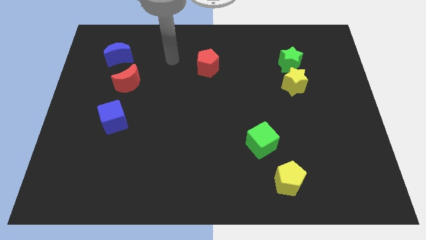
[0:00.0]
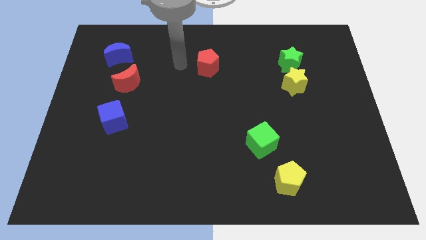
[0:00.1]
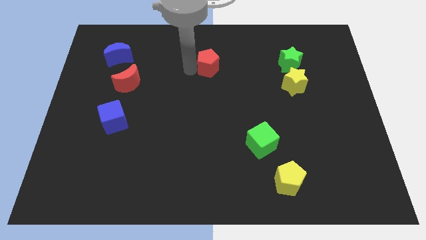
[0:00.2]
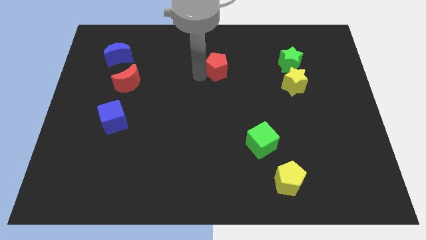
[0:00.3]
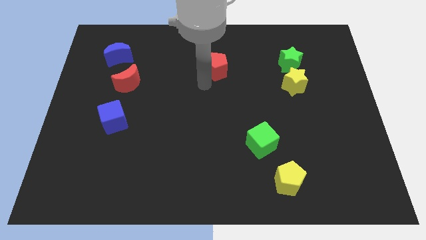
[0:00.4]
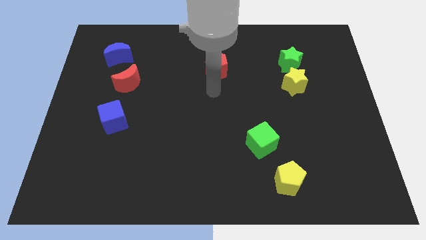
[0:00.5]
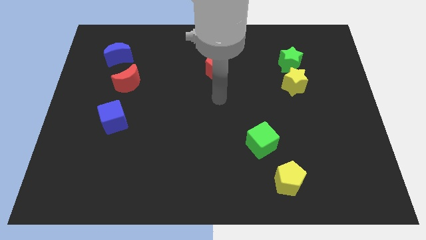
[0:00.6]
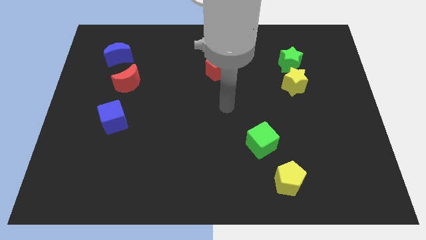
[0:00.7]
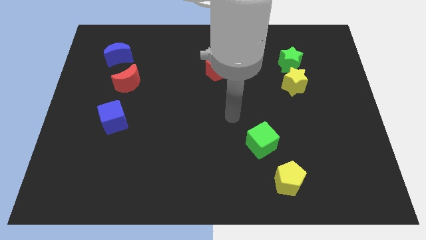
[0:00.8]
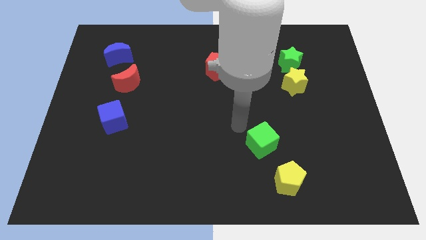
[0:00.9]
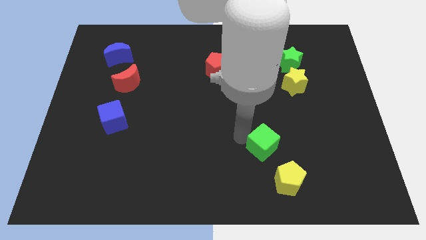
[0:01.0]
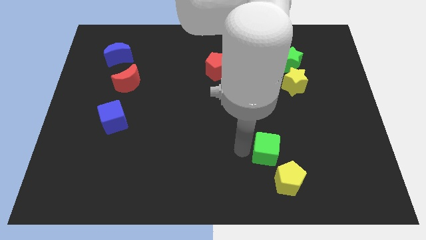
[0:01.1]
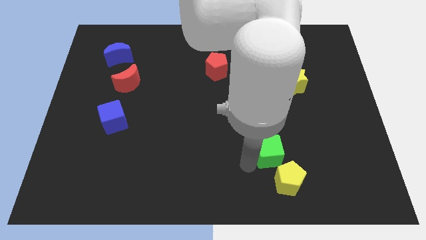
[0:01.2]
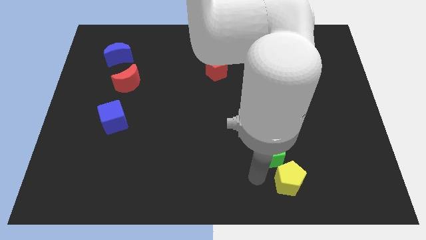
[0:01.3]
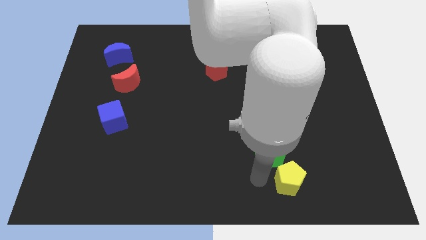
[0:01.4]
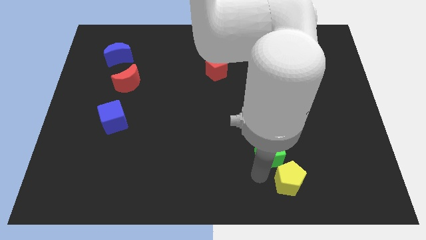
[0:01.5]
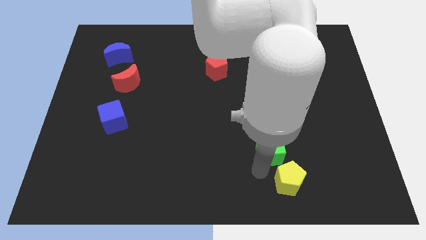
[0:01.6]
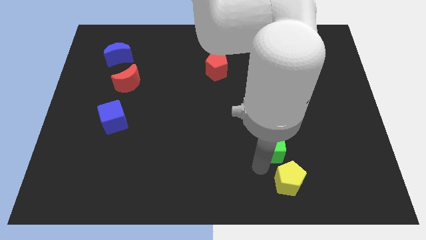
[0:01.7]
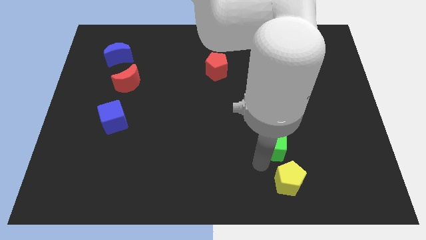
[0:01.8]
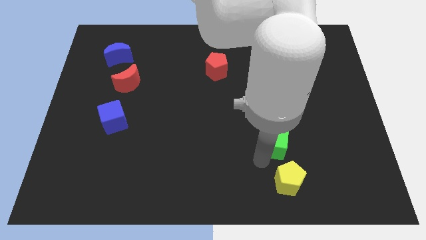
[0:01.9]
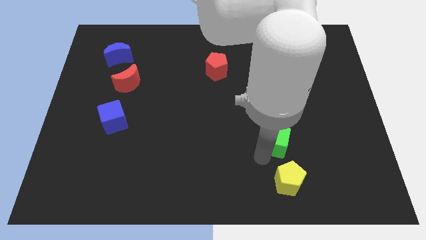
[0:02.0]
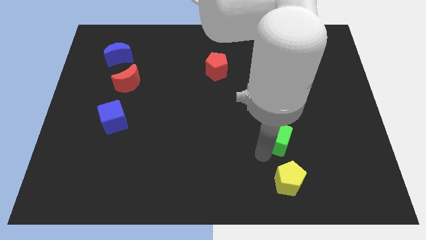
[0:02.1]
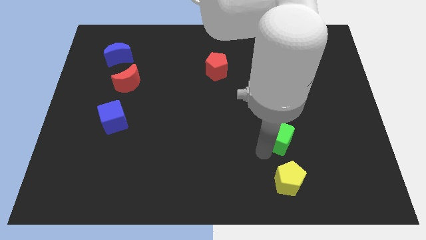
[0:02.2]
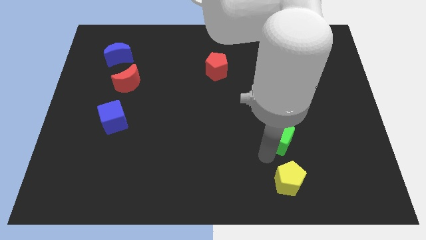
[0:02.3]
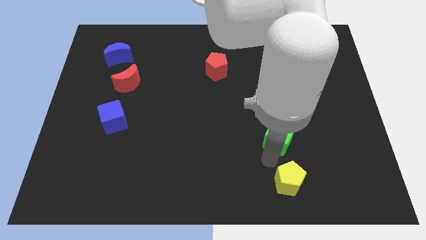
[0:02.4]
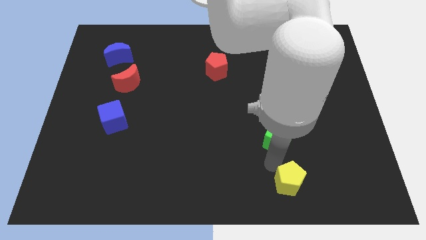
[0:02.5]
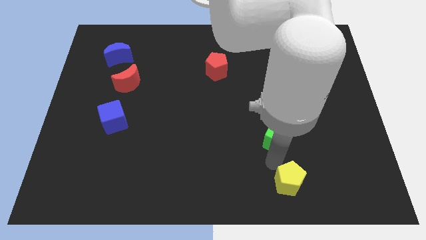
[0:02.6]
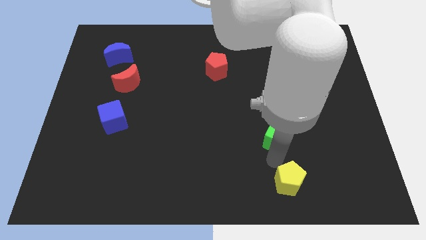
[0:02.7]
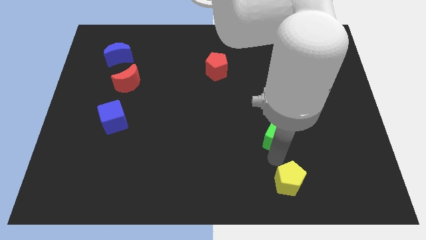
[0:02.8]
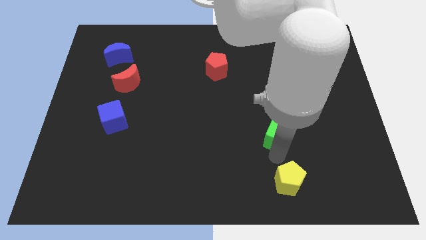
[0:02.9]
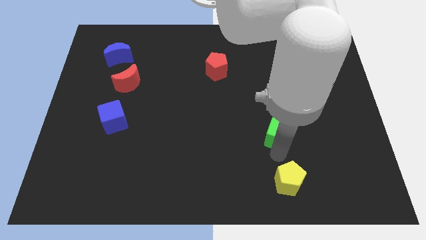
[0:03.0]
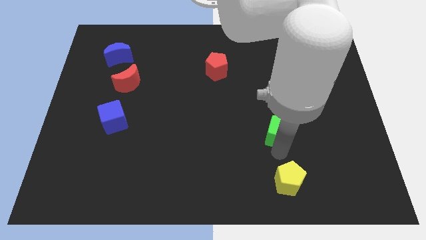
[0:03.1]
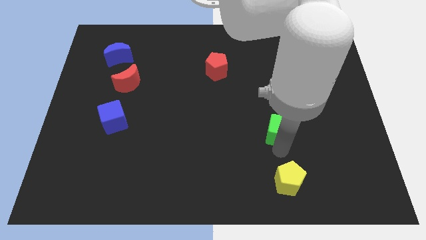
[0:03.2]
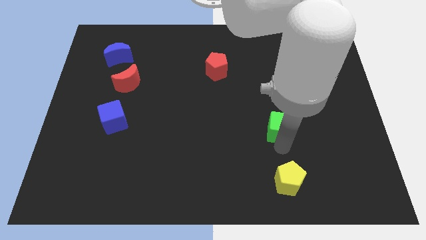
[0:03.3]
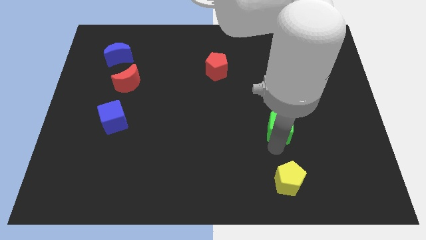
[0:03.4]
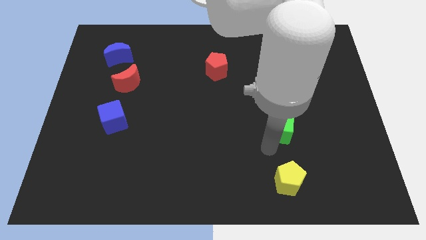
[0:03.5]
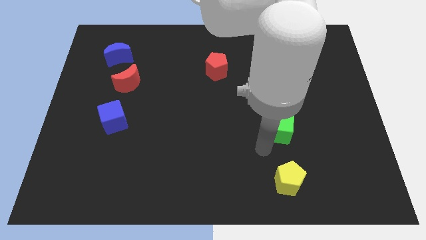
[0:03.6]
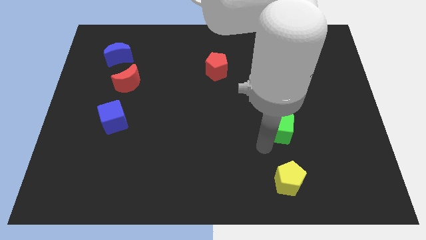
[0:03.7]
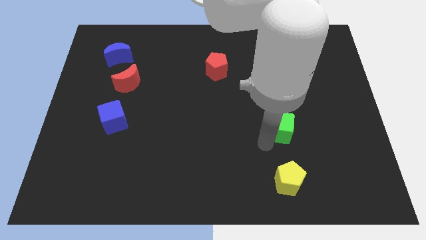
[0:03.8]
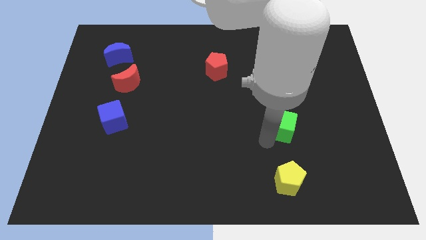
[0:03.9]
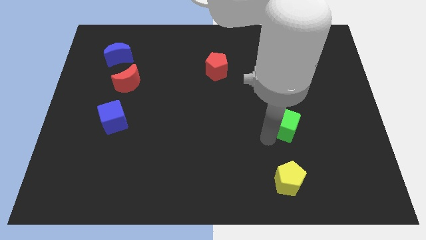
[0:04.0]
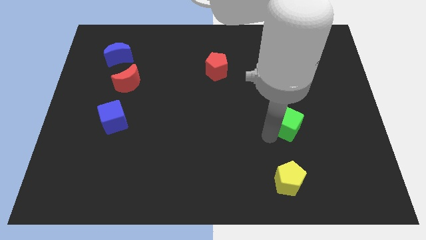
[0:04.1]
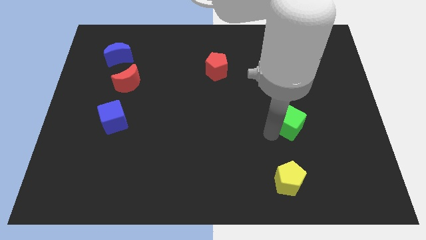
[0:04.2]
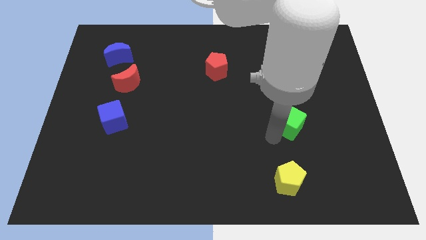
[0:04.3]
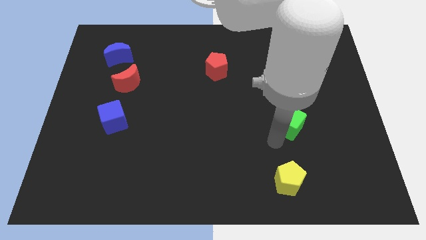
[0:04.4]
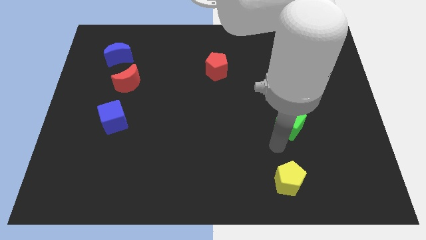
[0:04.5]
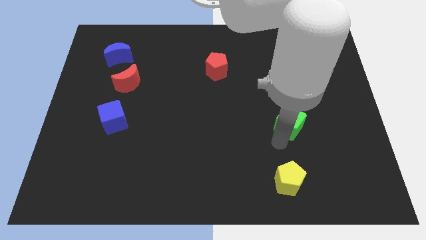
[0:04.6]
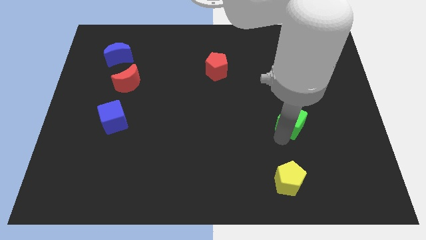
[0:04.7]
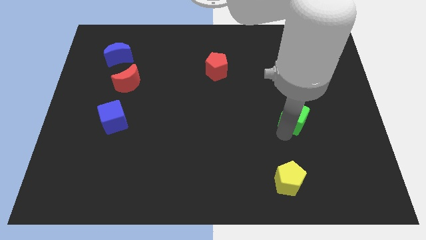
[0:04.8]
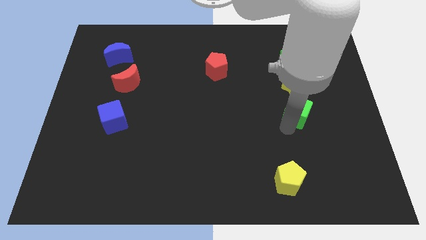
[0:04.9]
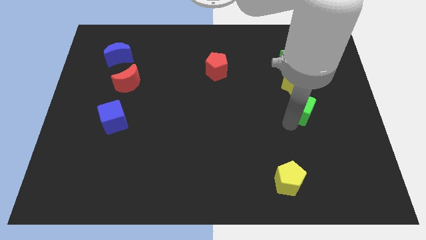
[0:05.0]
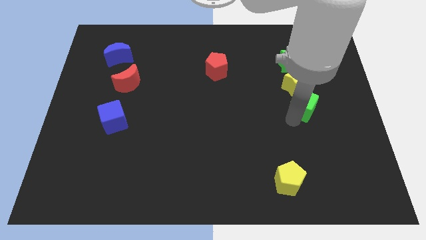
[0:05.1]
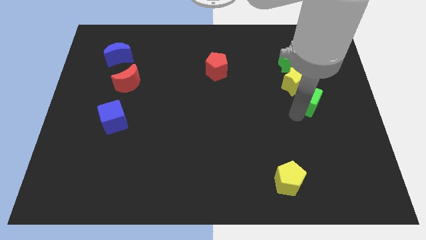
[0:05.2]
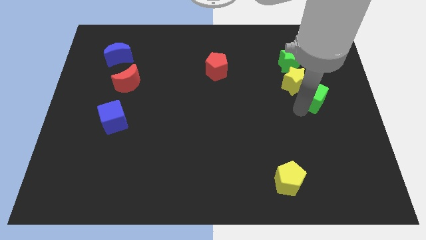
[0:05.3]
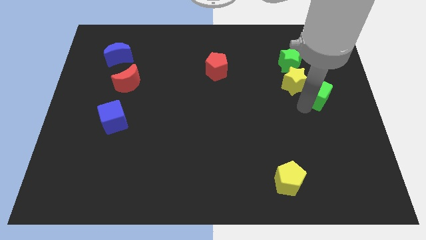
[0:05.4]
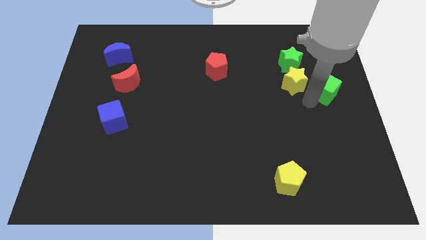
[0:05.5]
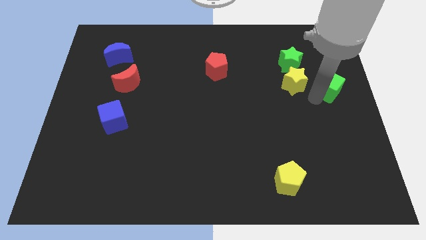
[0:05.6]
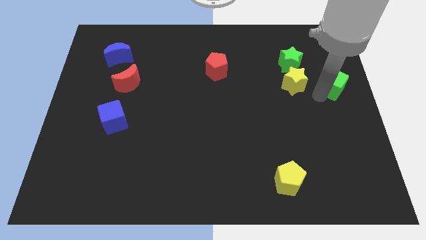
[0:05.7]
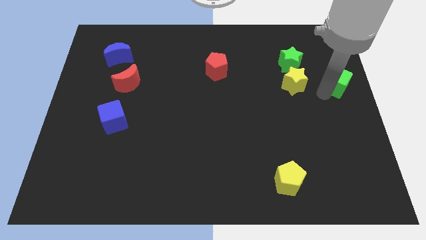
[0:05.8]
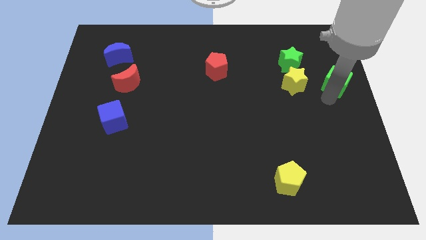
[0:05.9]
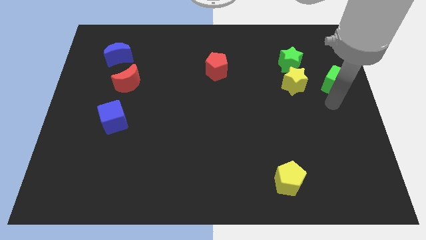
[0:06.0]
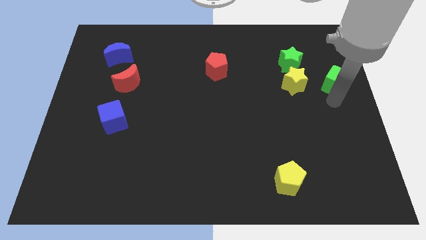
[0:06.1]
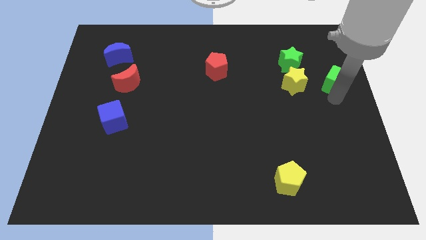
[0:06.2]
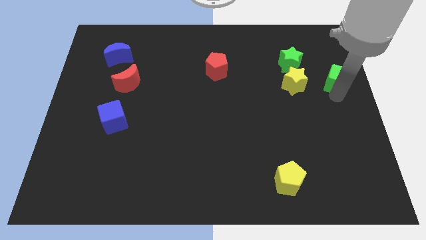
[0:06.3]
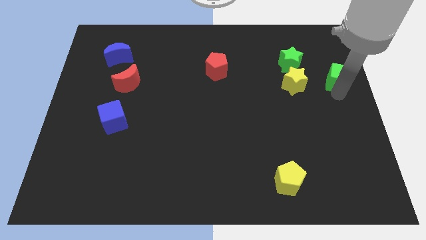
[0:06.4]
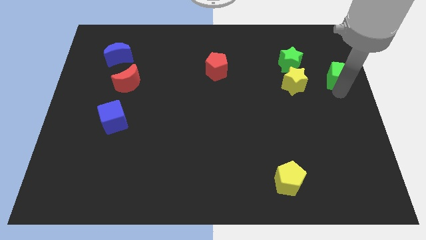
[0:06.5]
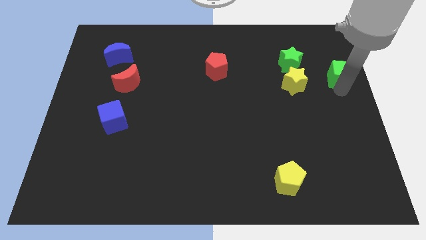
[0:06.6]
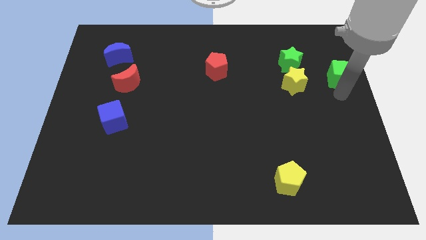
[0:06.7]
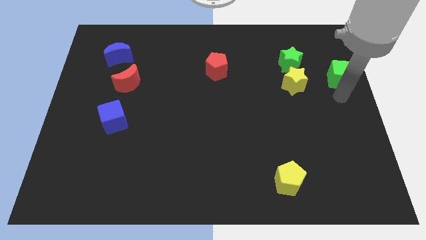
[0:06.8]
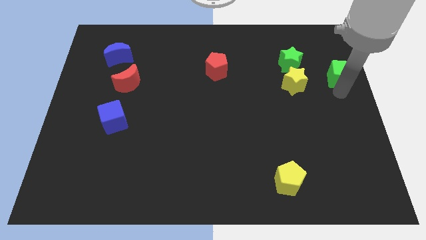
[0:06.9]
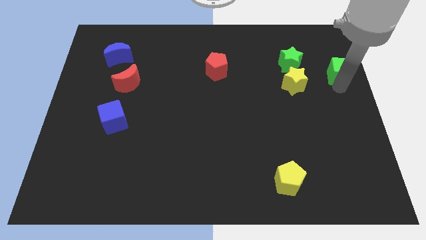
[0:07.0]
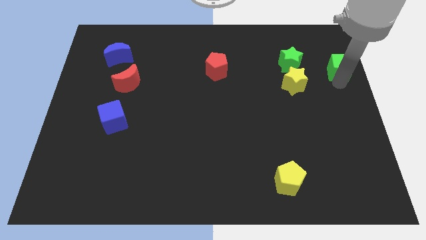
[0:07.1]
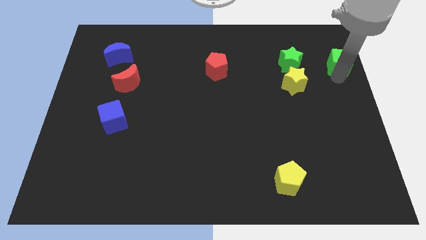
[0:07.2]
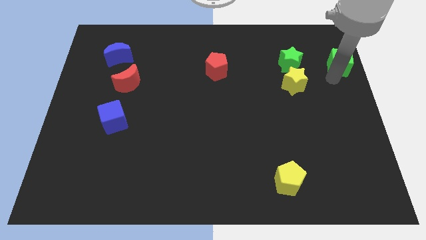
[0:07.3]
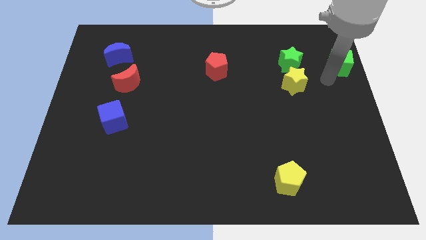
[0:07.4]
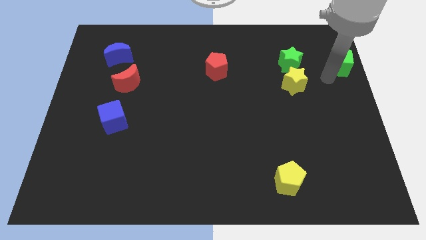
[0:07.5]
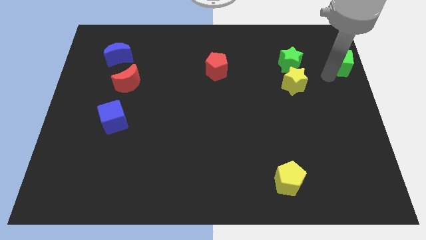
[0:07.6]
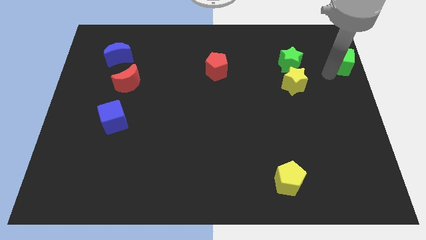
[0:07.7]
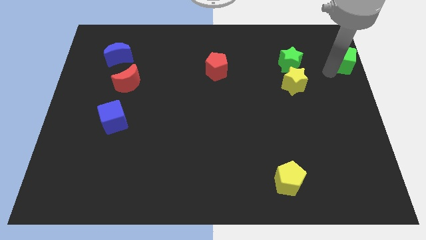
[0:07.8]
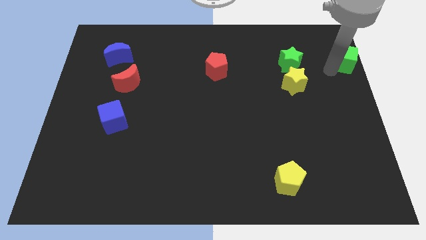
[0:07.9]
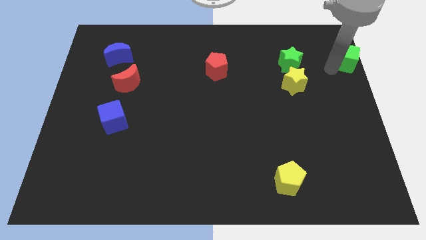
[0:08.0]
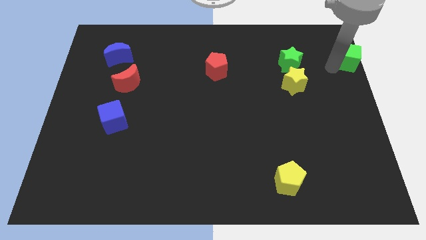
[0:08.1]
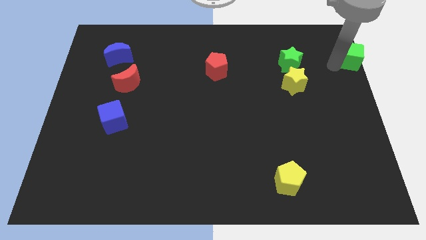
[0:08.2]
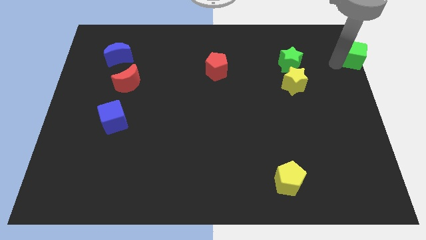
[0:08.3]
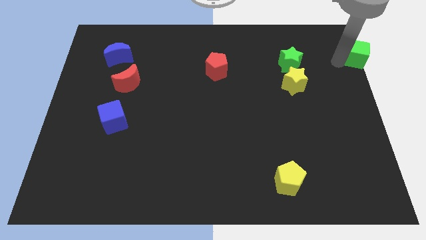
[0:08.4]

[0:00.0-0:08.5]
move the green cube to the top right of the board
